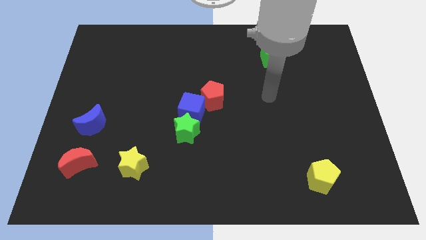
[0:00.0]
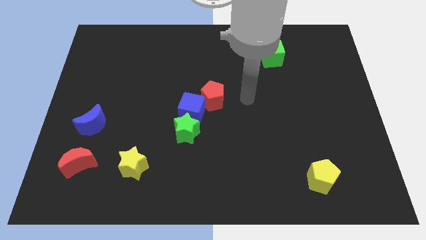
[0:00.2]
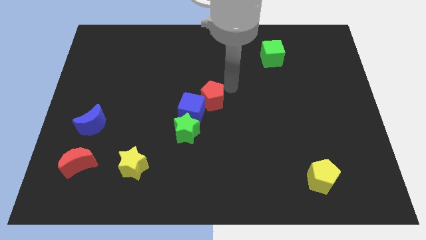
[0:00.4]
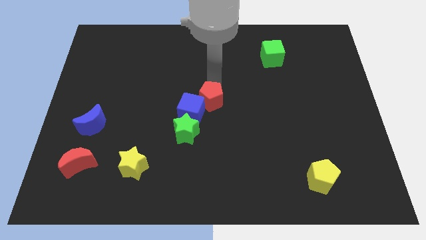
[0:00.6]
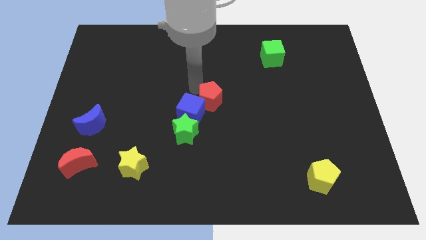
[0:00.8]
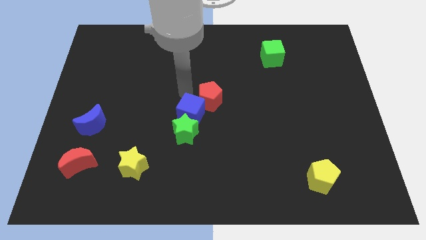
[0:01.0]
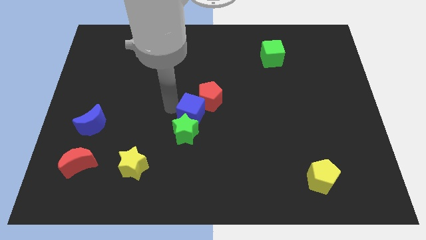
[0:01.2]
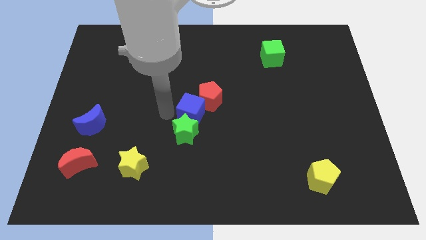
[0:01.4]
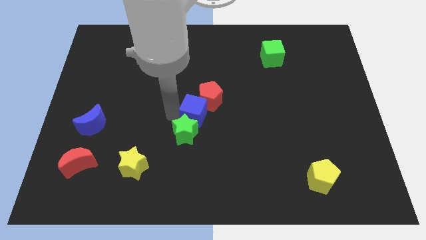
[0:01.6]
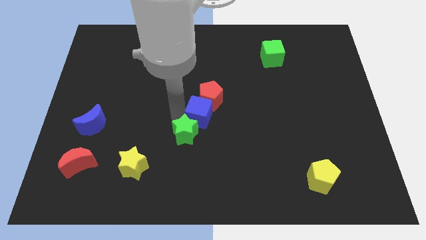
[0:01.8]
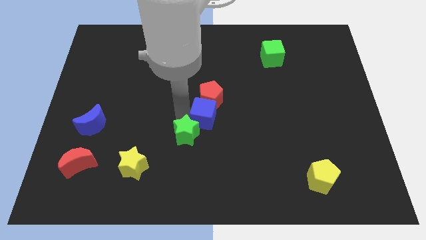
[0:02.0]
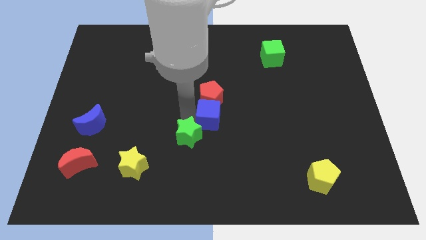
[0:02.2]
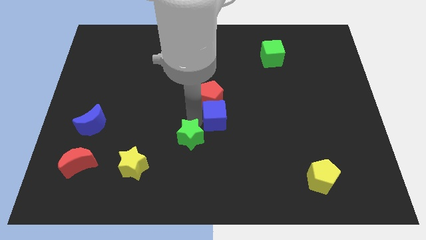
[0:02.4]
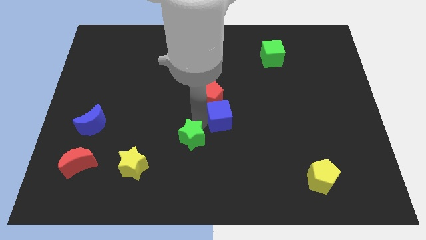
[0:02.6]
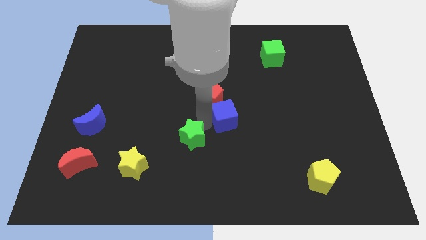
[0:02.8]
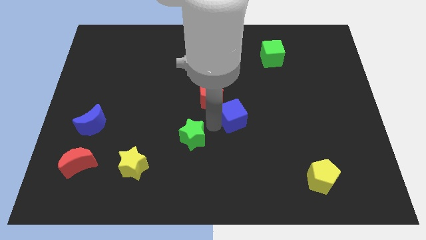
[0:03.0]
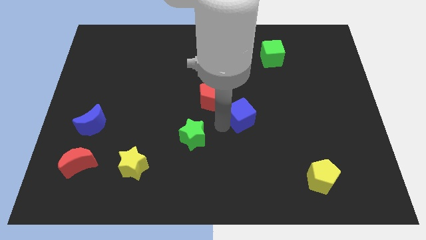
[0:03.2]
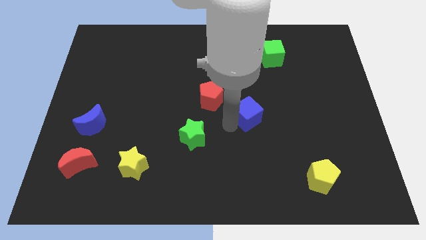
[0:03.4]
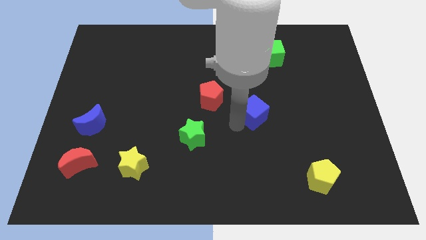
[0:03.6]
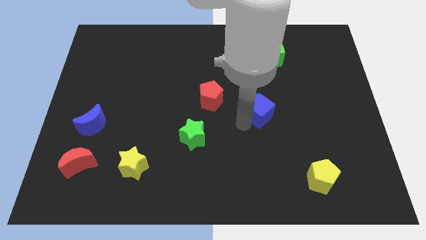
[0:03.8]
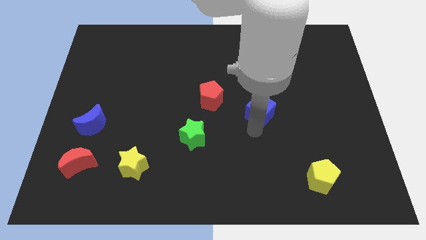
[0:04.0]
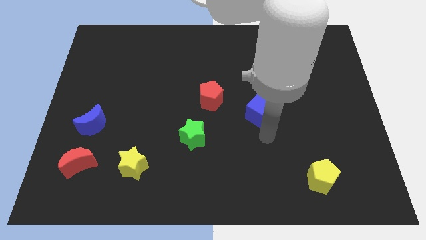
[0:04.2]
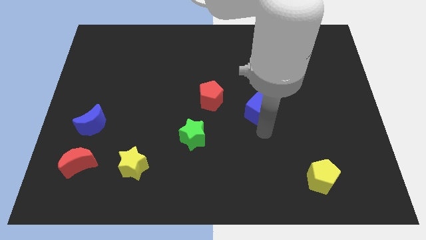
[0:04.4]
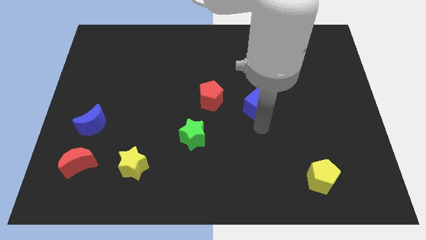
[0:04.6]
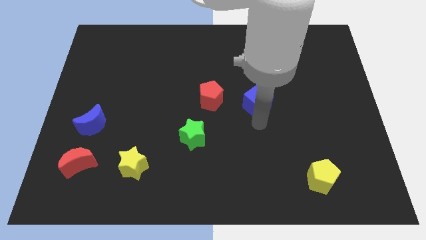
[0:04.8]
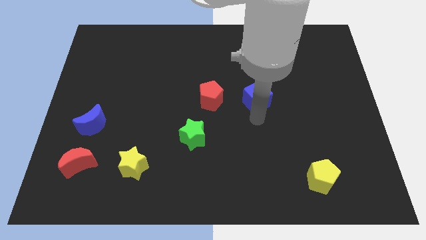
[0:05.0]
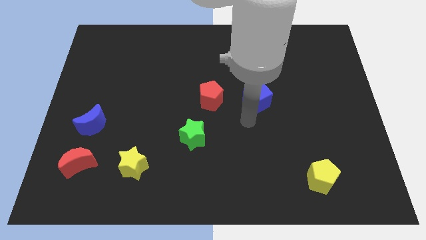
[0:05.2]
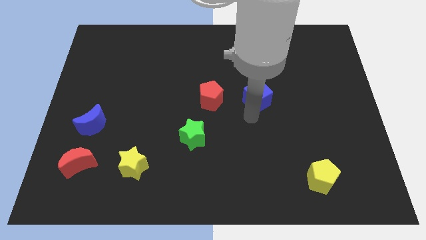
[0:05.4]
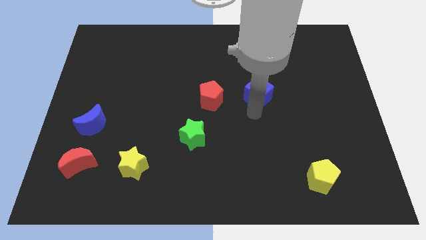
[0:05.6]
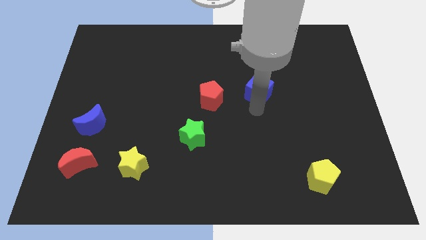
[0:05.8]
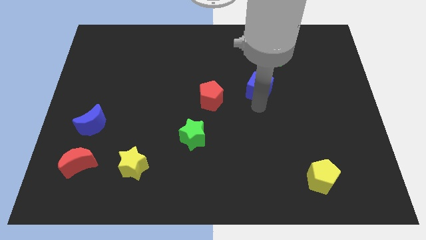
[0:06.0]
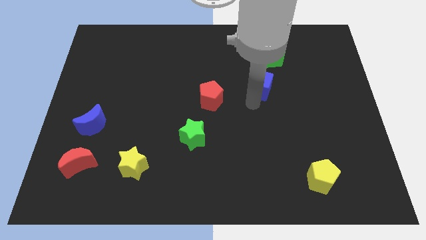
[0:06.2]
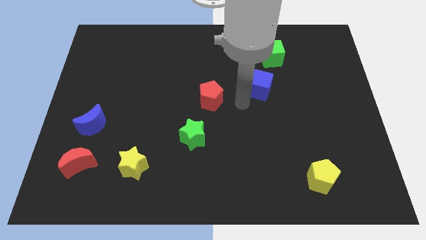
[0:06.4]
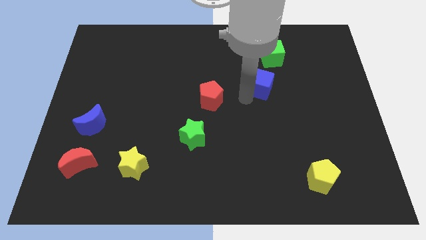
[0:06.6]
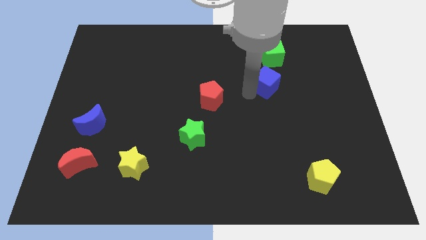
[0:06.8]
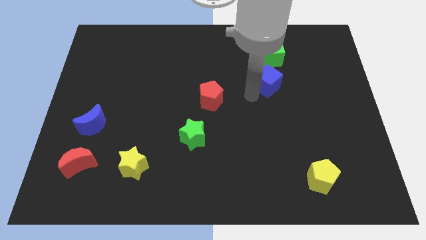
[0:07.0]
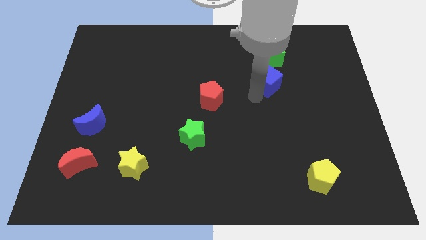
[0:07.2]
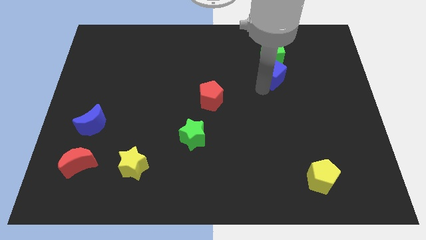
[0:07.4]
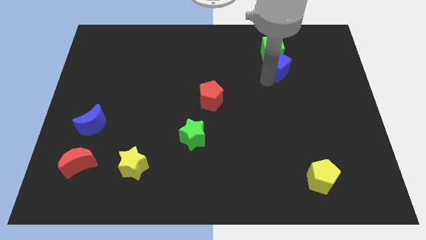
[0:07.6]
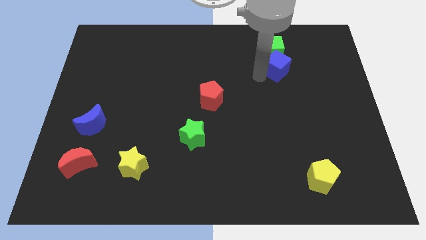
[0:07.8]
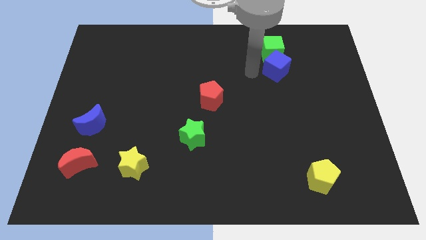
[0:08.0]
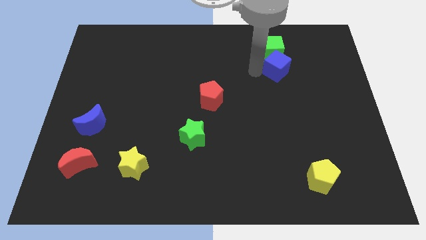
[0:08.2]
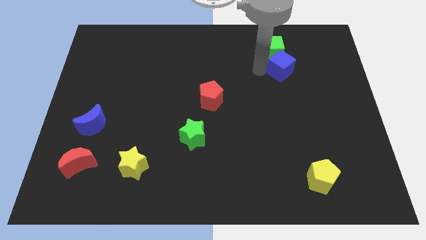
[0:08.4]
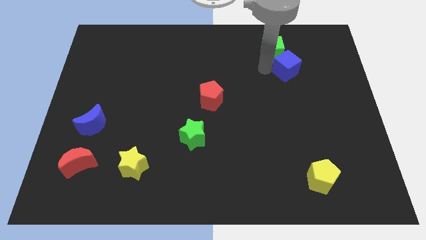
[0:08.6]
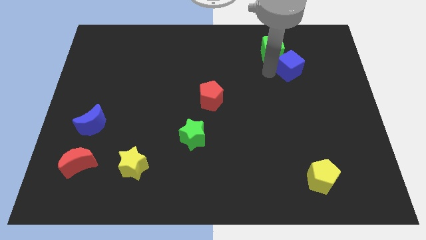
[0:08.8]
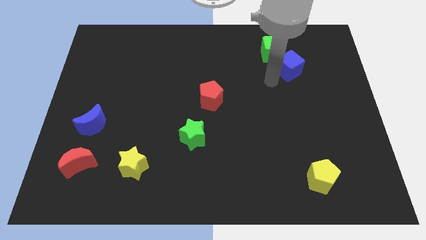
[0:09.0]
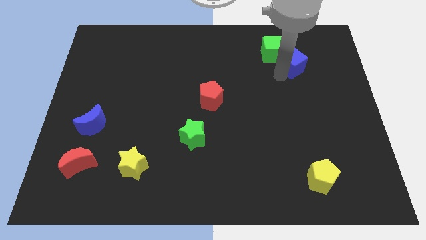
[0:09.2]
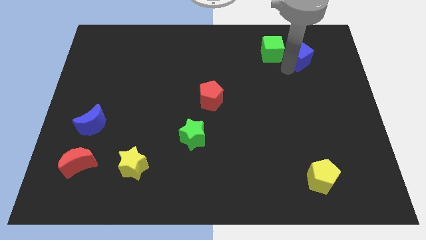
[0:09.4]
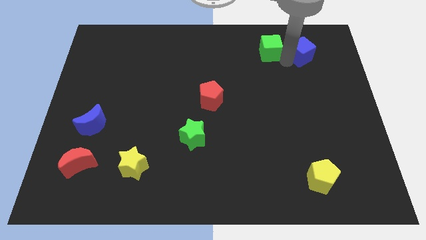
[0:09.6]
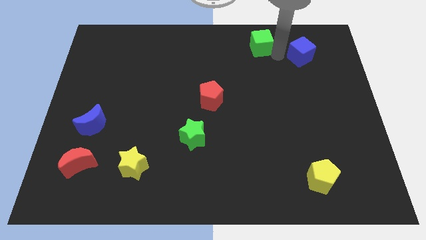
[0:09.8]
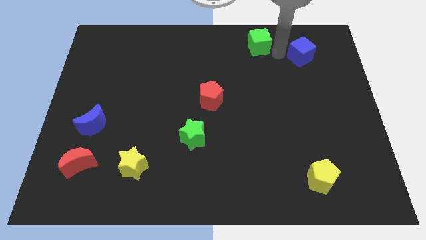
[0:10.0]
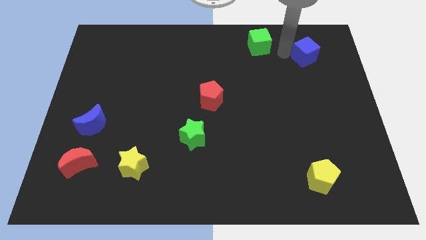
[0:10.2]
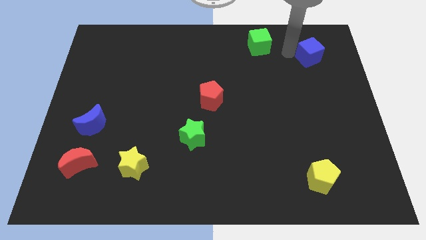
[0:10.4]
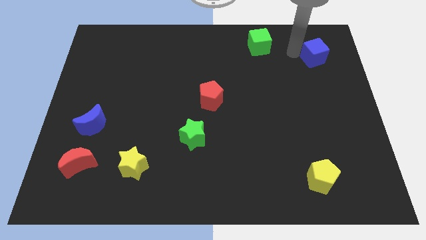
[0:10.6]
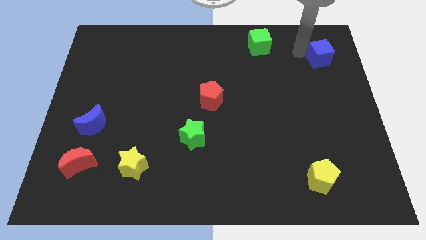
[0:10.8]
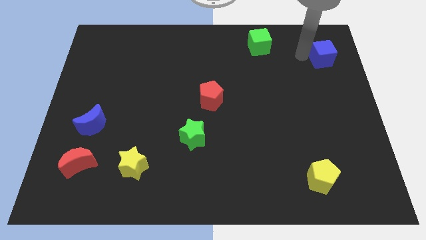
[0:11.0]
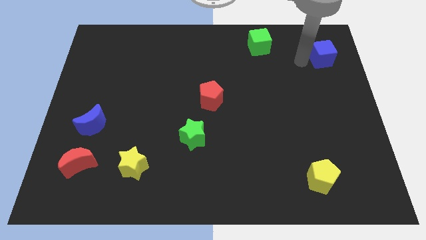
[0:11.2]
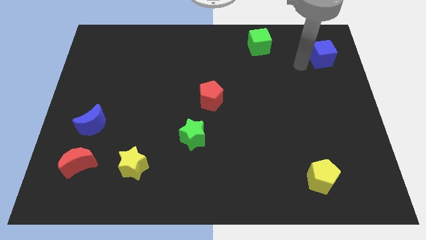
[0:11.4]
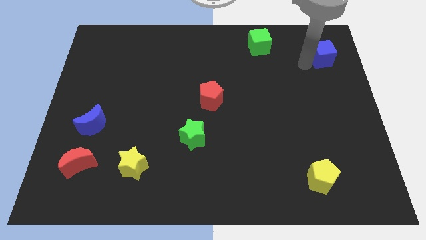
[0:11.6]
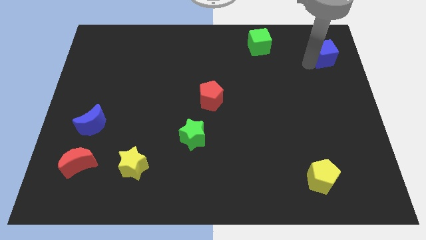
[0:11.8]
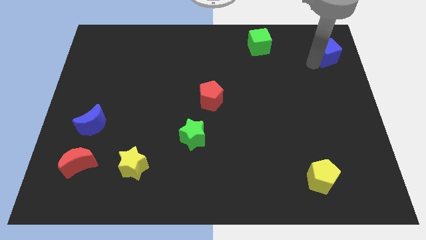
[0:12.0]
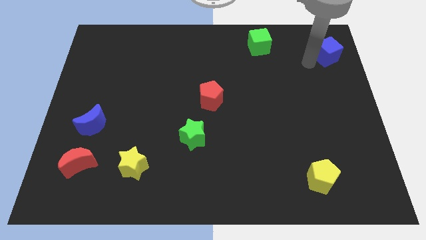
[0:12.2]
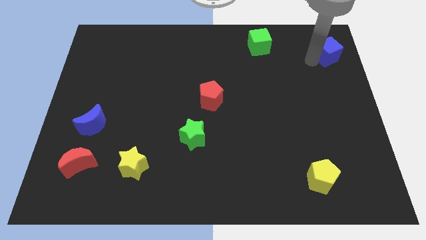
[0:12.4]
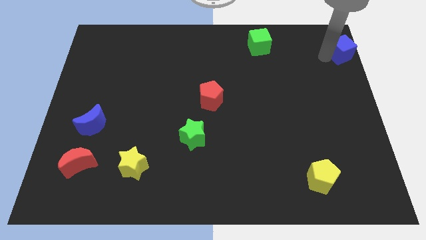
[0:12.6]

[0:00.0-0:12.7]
slide the blue cube to the top right
